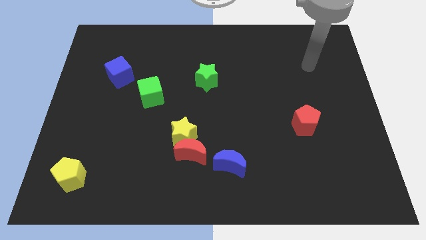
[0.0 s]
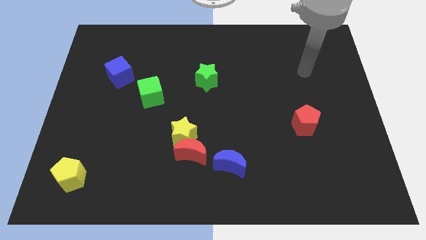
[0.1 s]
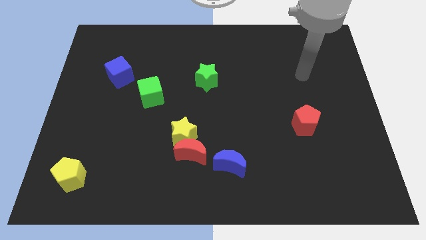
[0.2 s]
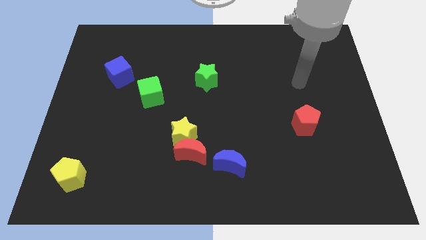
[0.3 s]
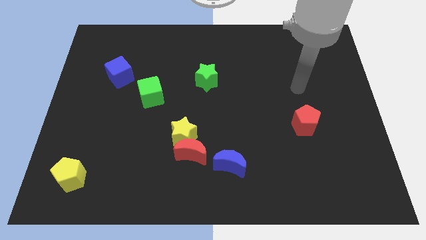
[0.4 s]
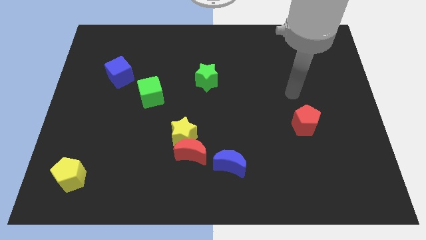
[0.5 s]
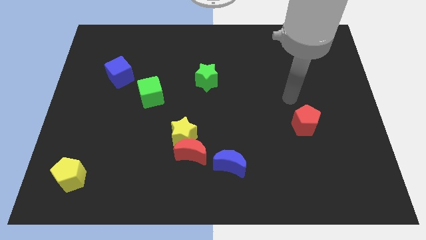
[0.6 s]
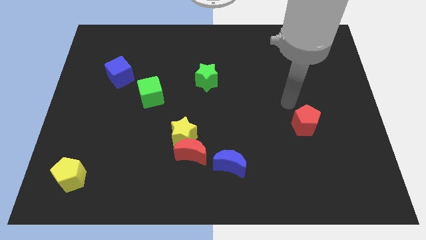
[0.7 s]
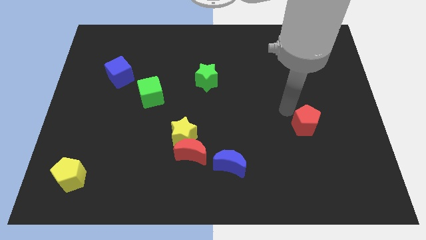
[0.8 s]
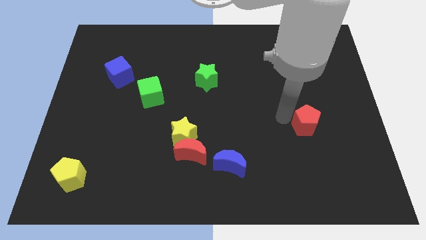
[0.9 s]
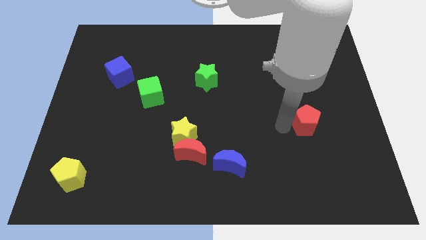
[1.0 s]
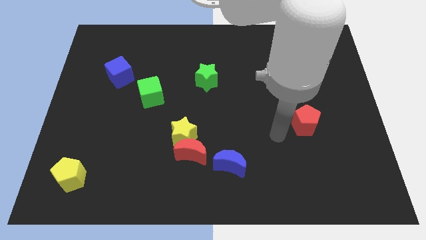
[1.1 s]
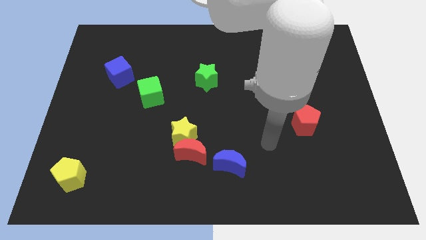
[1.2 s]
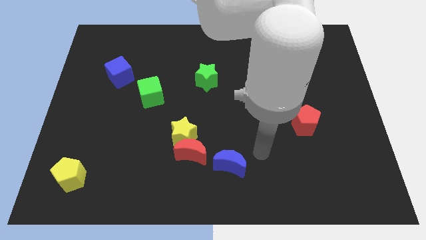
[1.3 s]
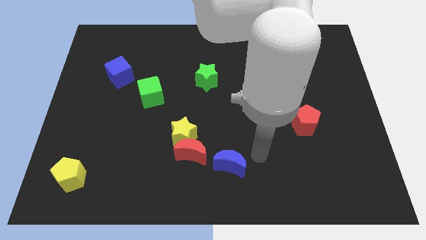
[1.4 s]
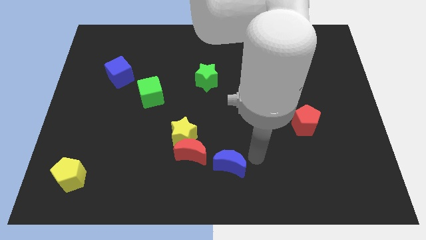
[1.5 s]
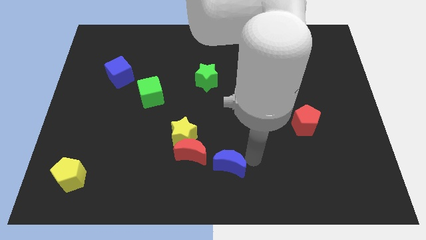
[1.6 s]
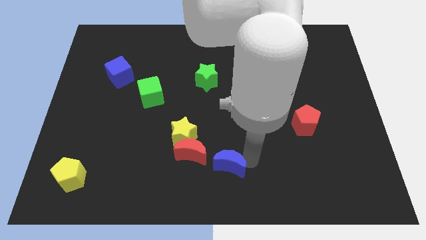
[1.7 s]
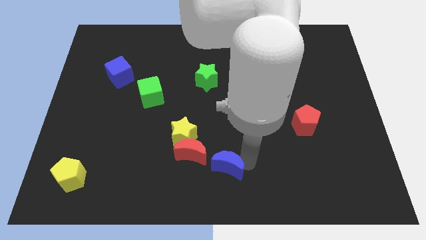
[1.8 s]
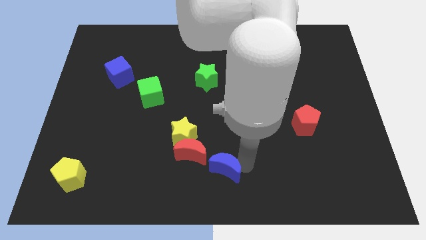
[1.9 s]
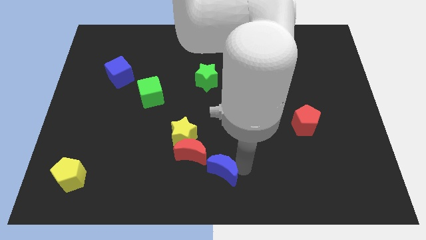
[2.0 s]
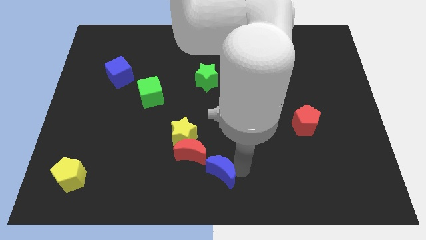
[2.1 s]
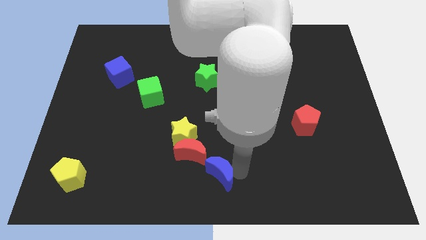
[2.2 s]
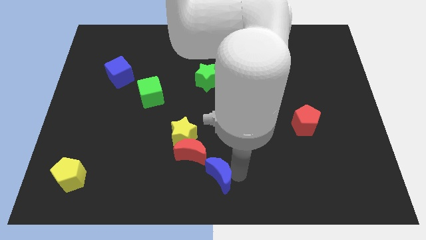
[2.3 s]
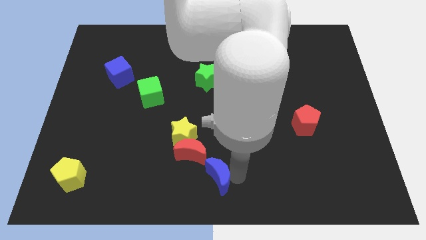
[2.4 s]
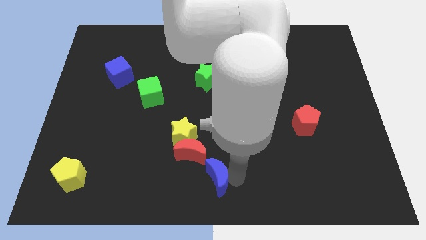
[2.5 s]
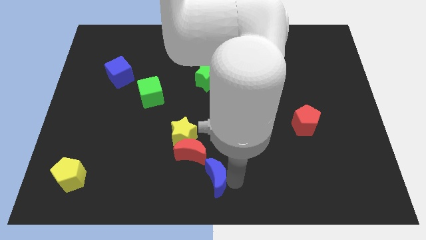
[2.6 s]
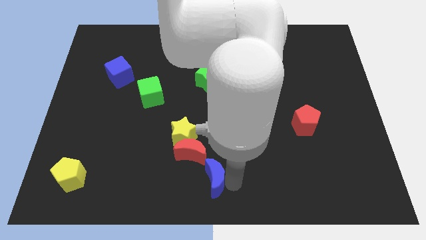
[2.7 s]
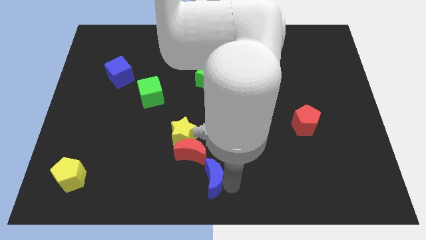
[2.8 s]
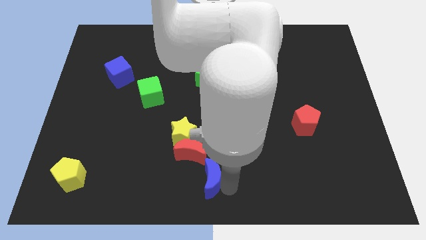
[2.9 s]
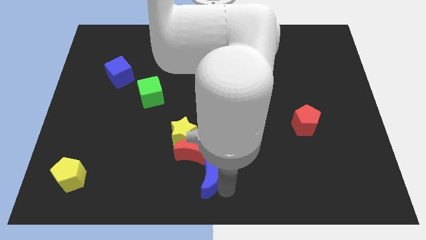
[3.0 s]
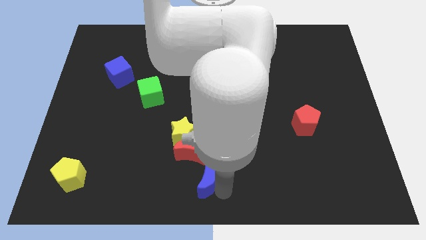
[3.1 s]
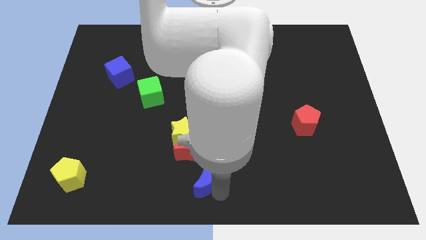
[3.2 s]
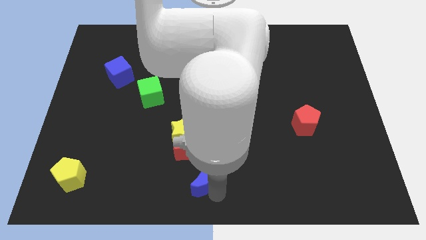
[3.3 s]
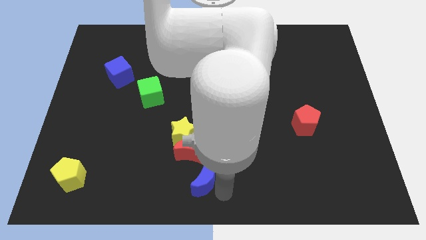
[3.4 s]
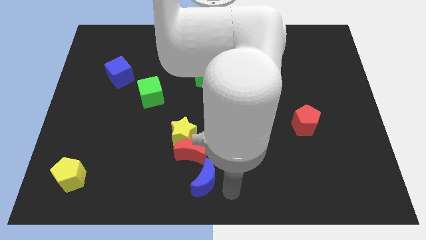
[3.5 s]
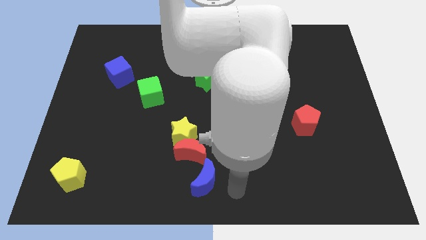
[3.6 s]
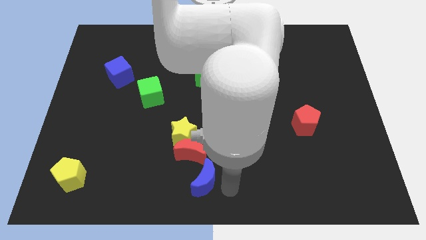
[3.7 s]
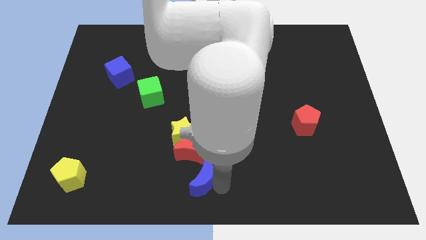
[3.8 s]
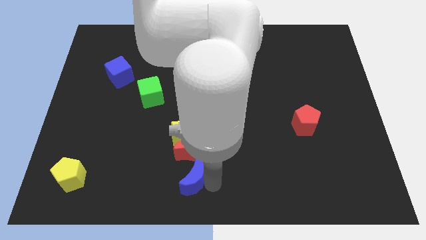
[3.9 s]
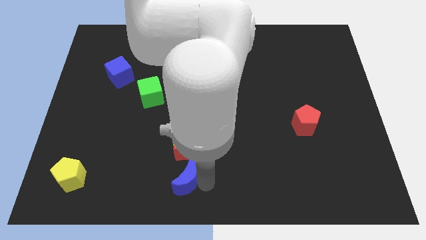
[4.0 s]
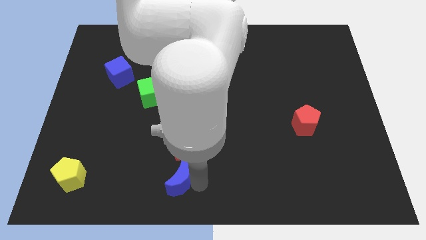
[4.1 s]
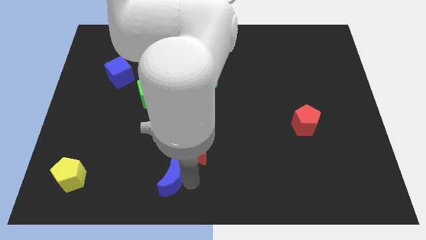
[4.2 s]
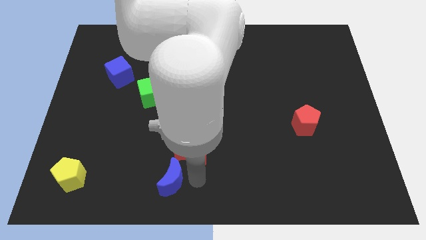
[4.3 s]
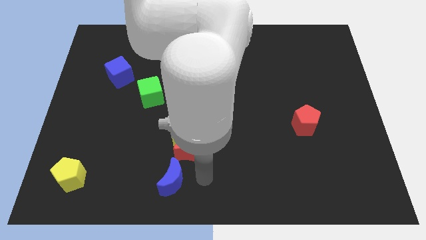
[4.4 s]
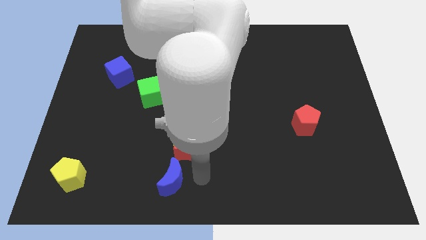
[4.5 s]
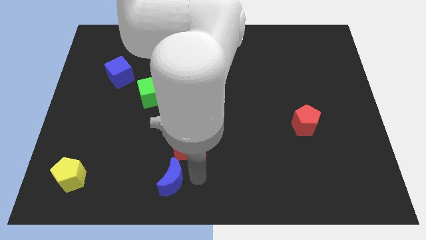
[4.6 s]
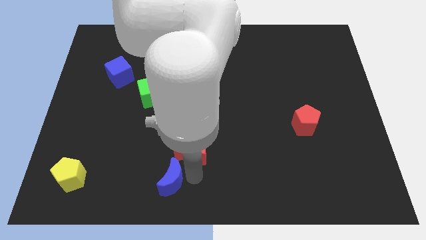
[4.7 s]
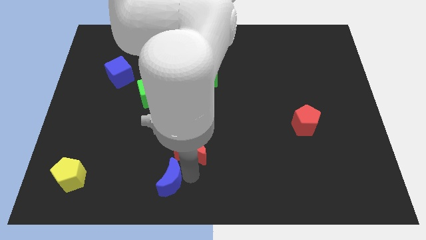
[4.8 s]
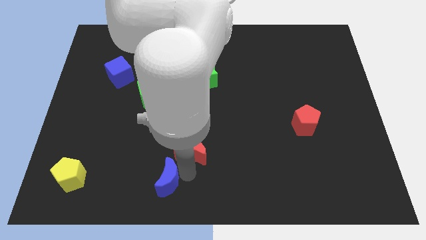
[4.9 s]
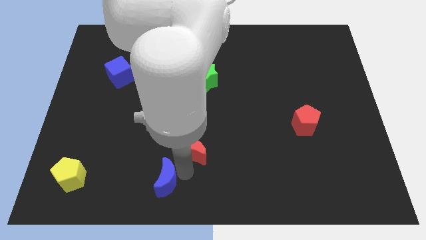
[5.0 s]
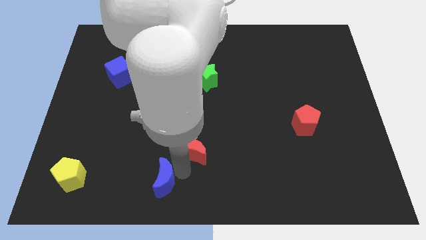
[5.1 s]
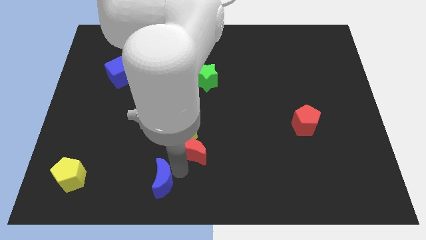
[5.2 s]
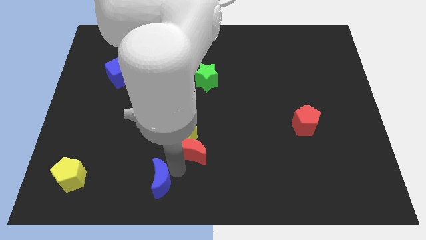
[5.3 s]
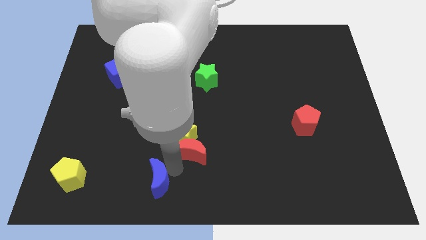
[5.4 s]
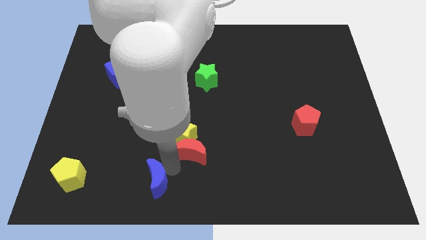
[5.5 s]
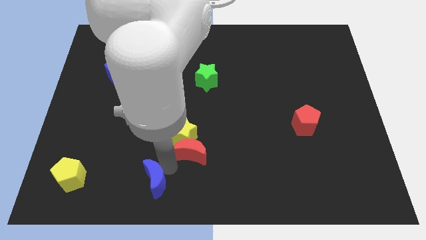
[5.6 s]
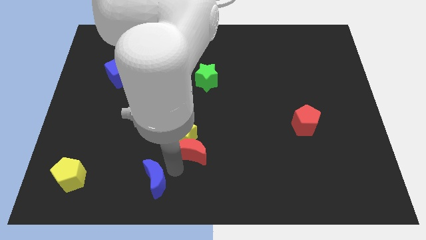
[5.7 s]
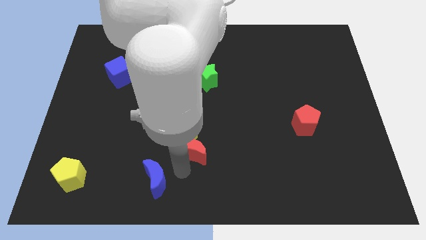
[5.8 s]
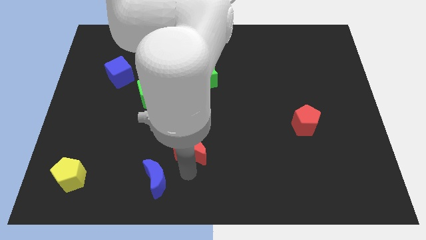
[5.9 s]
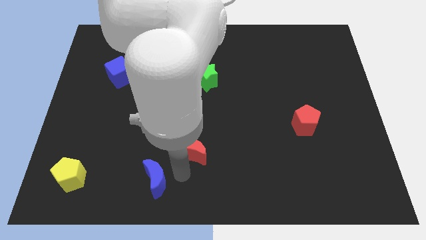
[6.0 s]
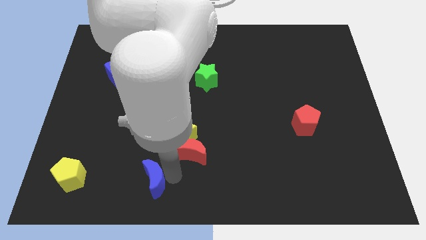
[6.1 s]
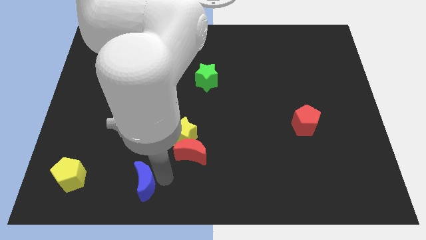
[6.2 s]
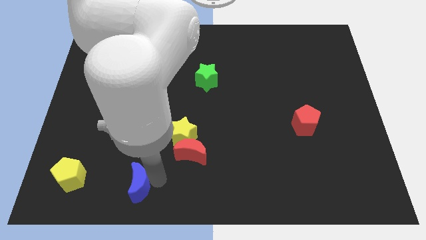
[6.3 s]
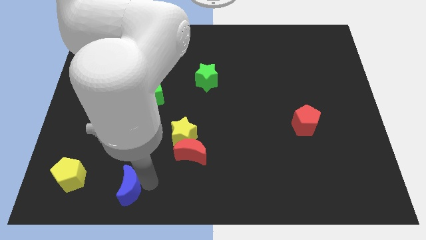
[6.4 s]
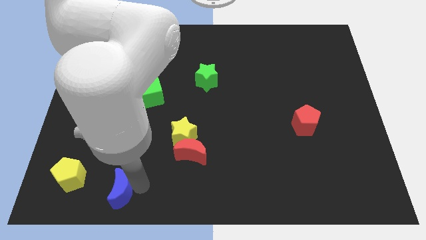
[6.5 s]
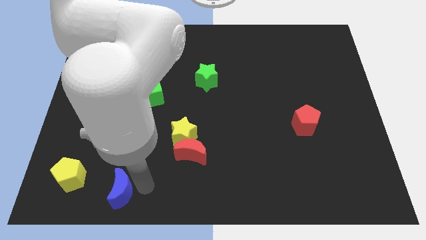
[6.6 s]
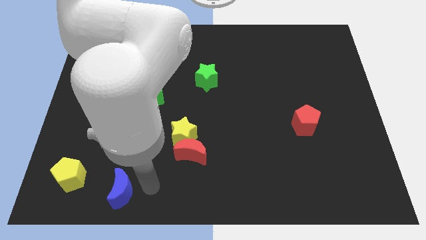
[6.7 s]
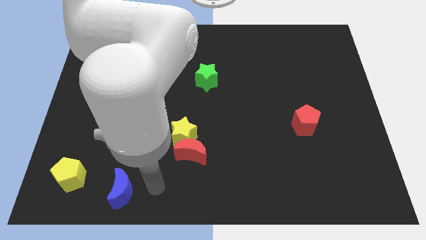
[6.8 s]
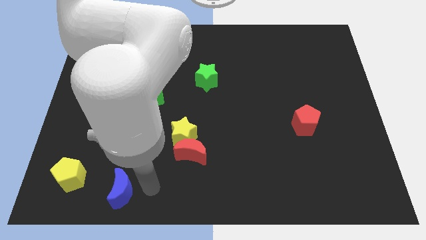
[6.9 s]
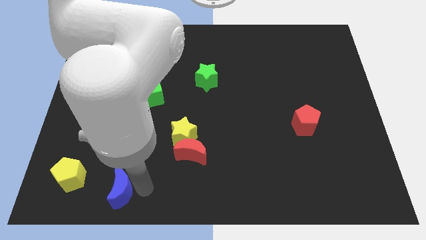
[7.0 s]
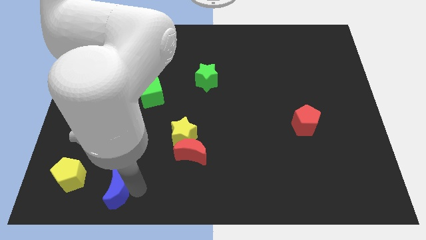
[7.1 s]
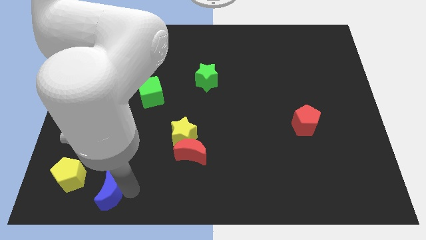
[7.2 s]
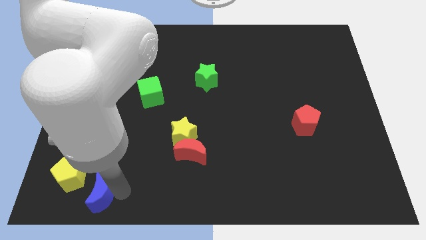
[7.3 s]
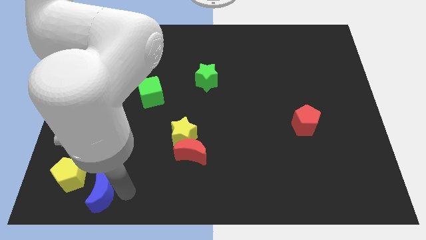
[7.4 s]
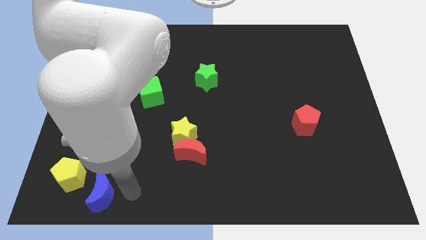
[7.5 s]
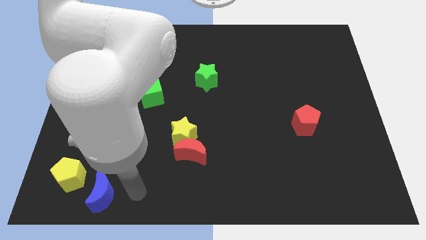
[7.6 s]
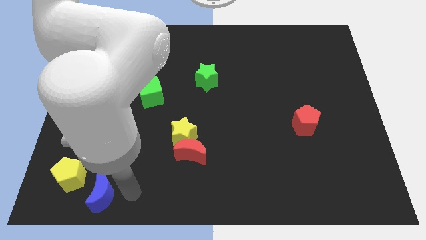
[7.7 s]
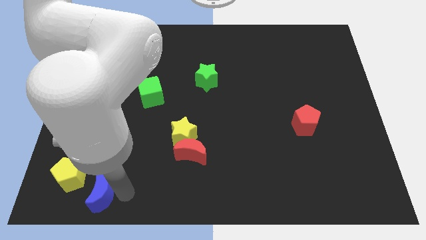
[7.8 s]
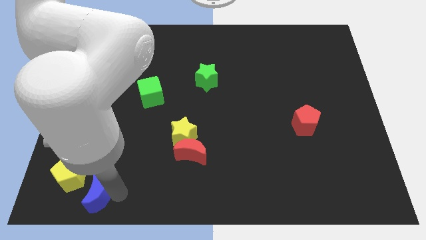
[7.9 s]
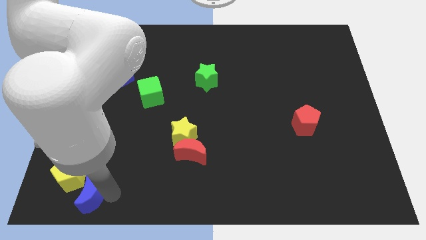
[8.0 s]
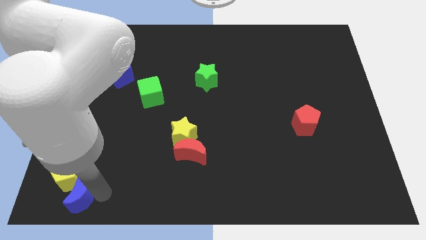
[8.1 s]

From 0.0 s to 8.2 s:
put the blue moon to the bottom left of the board
